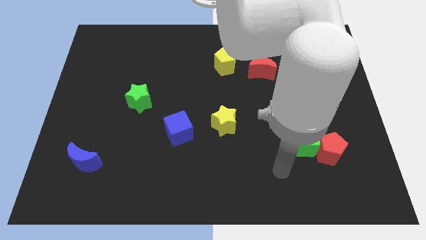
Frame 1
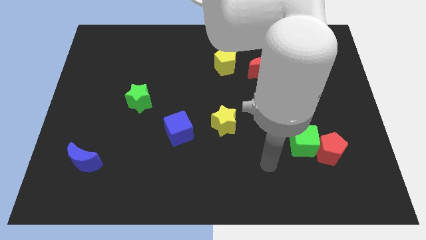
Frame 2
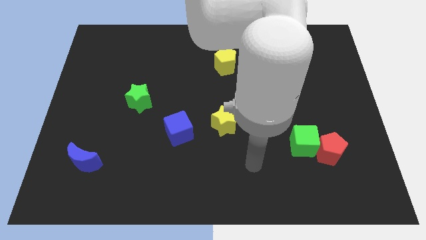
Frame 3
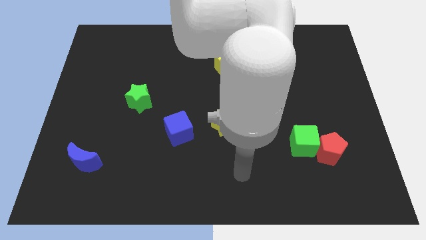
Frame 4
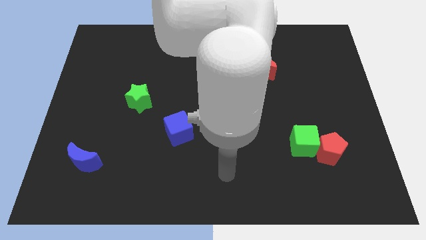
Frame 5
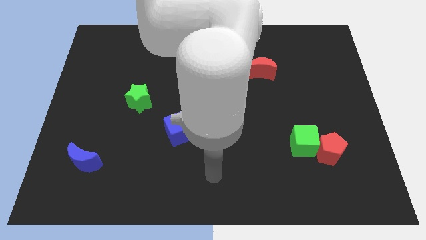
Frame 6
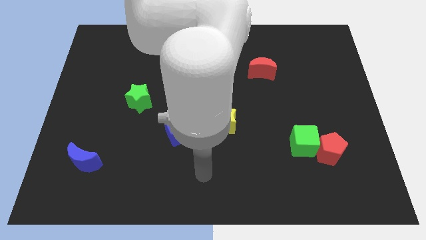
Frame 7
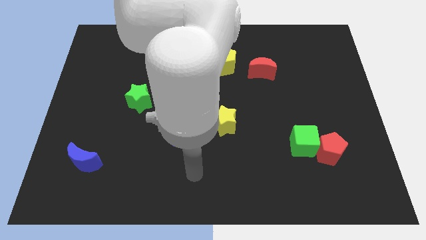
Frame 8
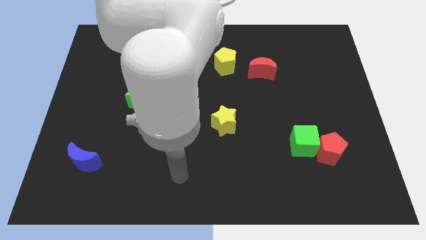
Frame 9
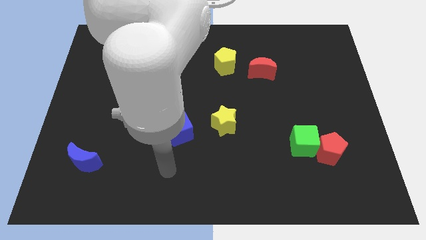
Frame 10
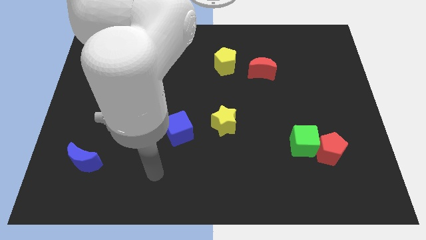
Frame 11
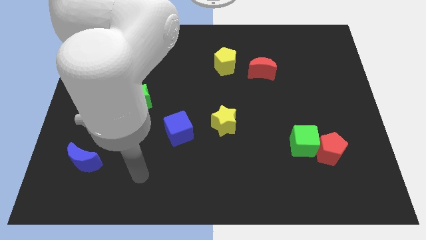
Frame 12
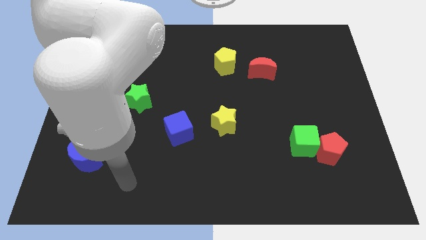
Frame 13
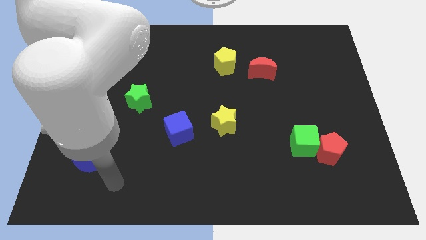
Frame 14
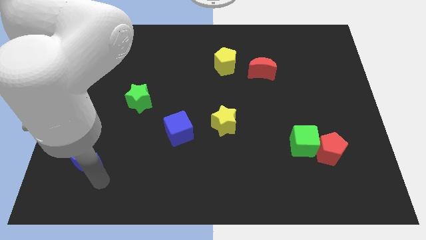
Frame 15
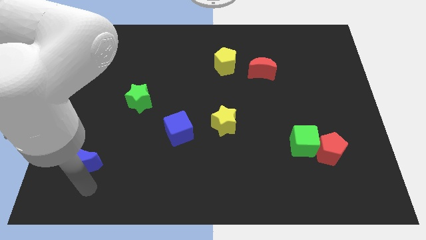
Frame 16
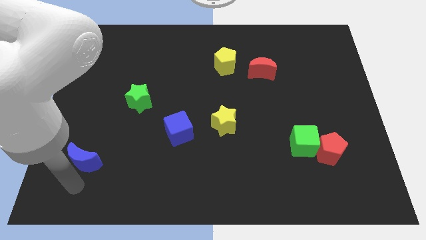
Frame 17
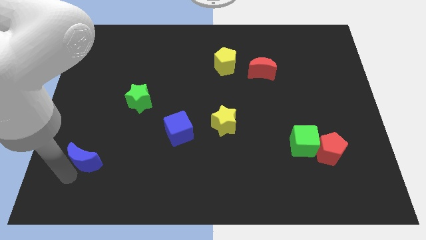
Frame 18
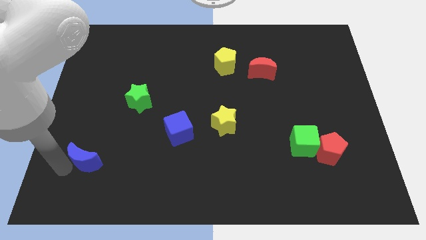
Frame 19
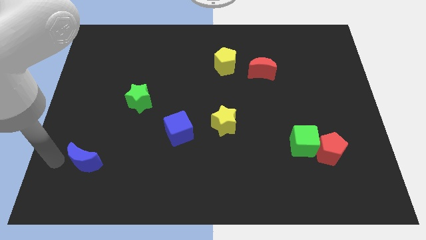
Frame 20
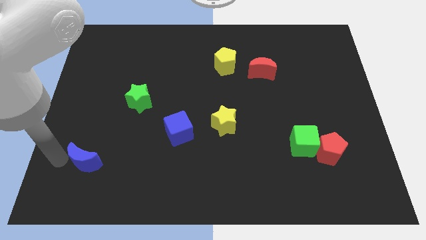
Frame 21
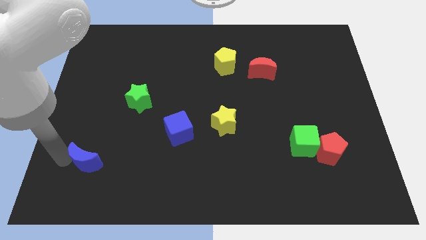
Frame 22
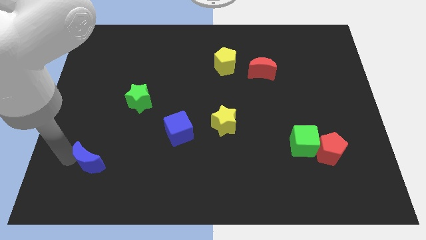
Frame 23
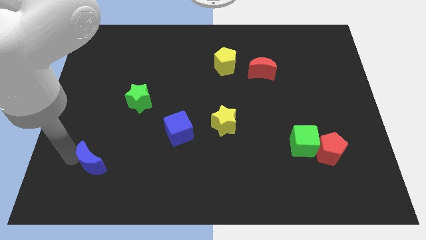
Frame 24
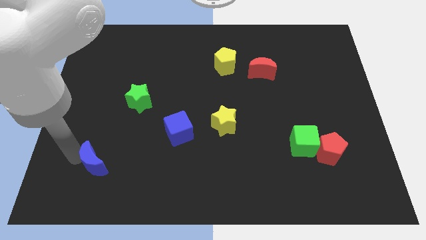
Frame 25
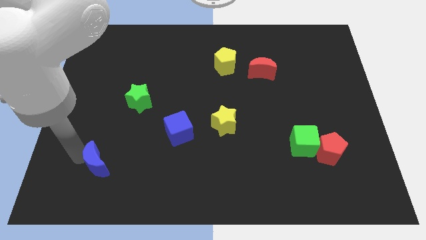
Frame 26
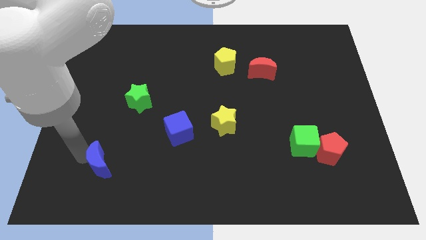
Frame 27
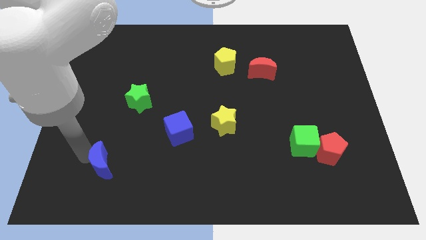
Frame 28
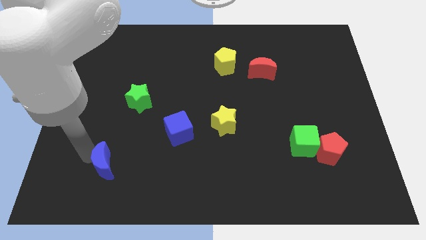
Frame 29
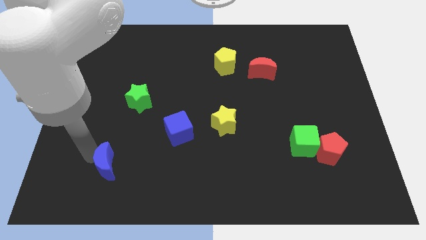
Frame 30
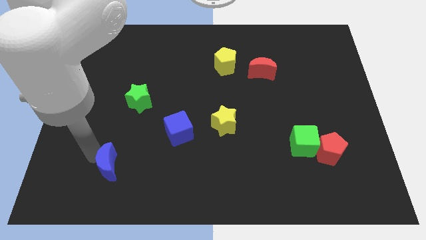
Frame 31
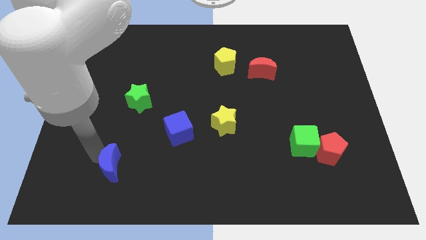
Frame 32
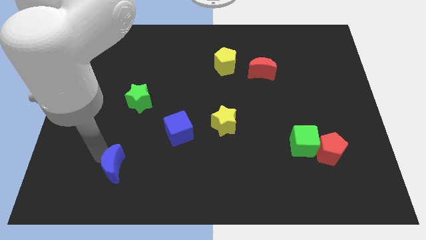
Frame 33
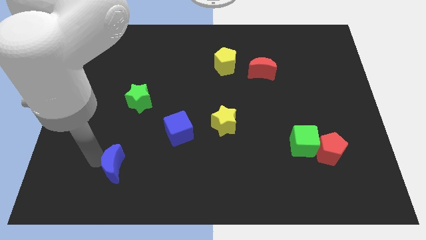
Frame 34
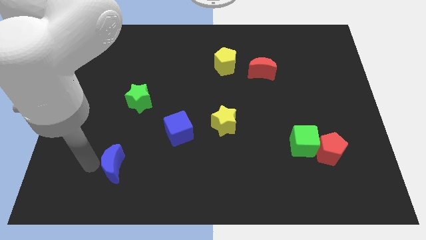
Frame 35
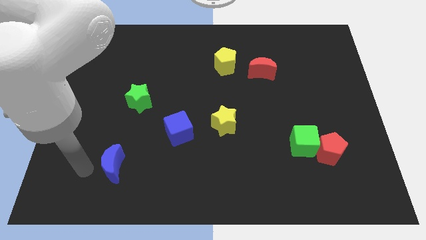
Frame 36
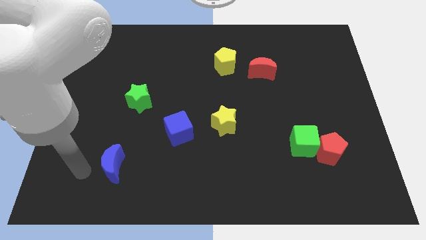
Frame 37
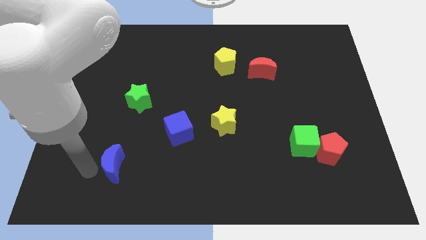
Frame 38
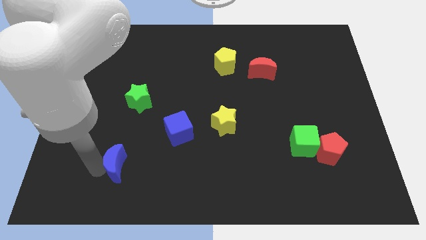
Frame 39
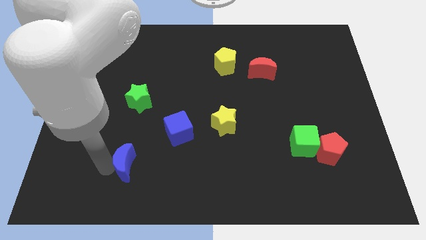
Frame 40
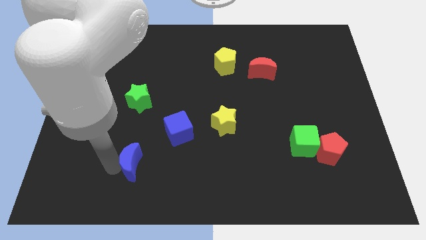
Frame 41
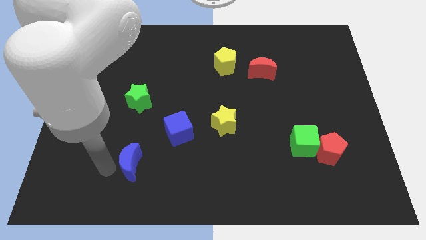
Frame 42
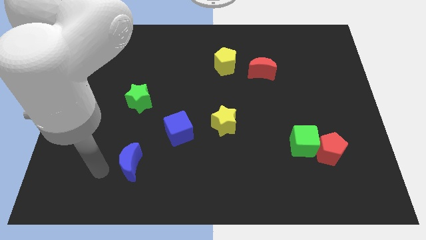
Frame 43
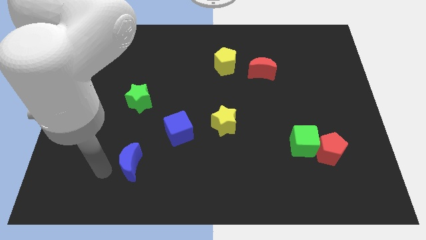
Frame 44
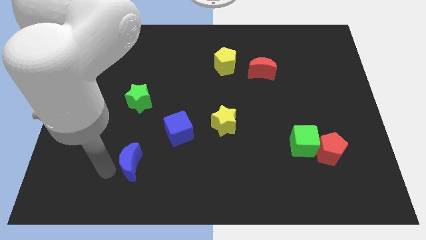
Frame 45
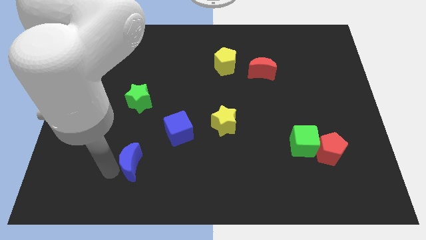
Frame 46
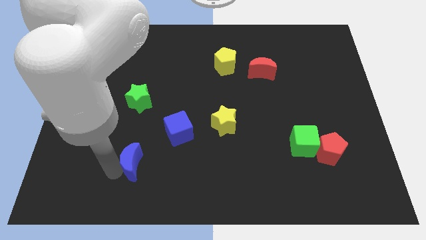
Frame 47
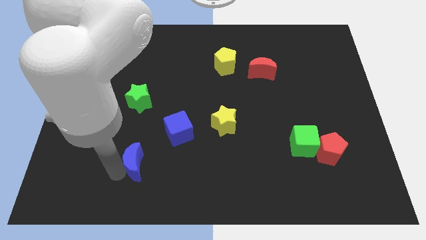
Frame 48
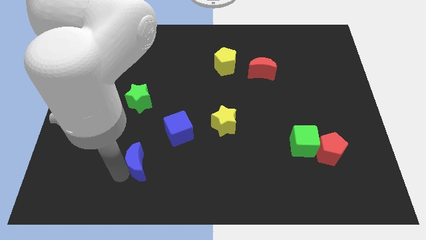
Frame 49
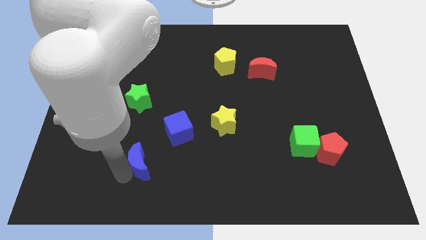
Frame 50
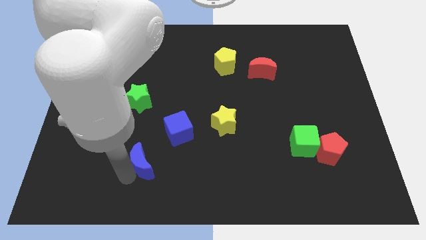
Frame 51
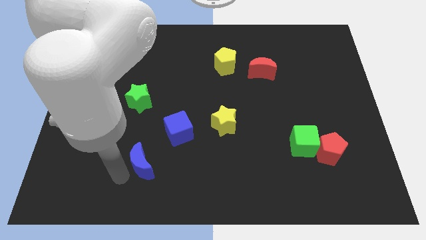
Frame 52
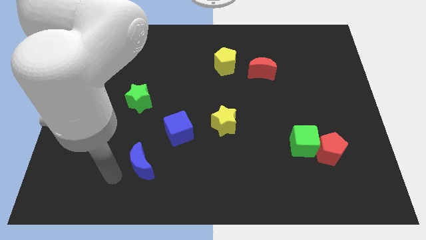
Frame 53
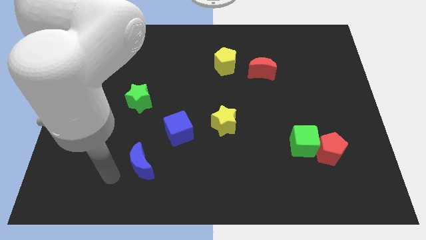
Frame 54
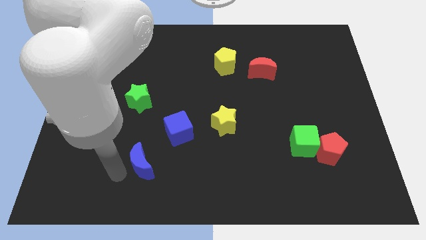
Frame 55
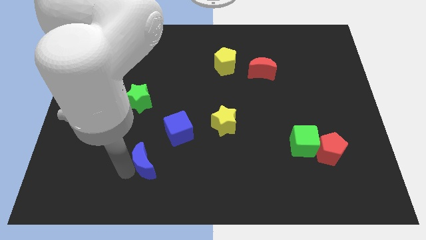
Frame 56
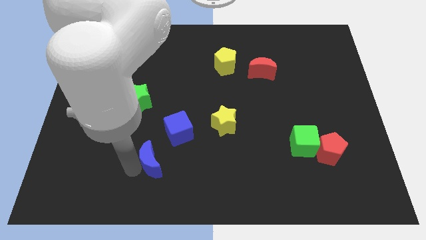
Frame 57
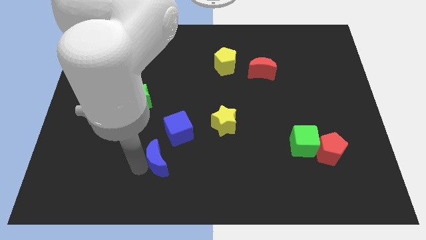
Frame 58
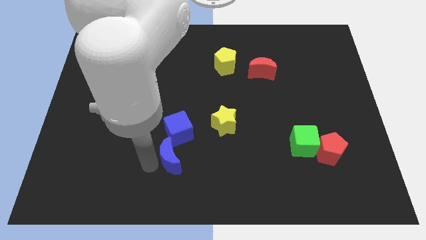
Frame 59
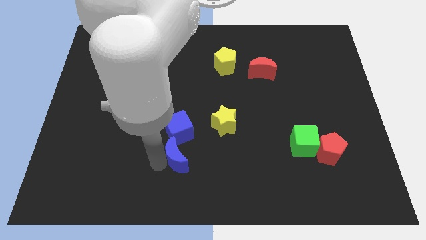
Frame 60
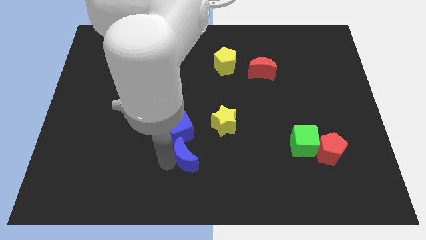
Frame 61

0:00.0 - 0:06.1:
move the blue moon right

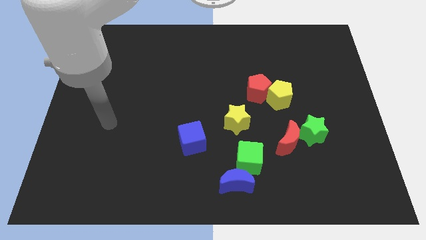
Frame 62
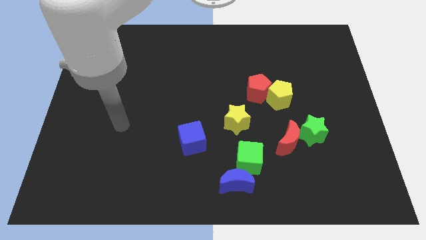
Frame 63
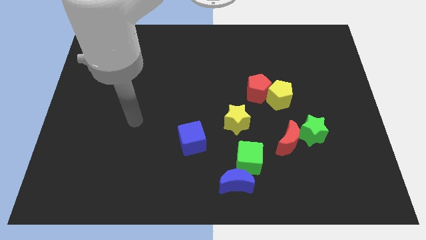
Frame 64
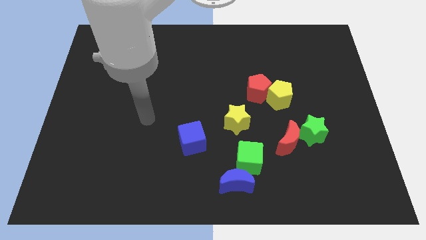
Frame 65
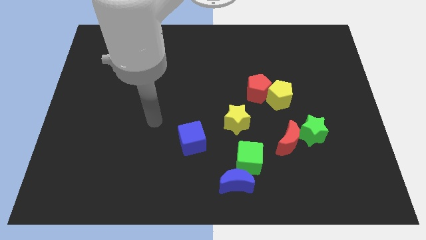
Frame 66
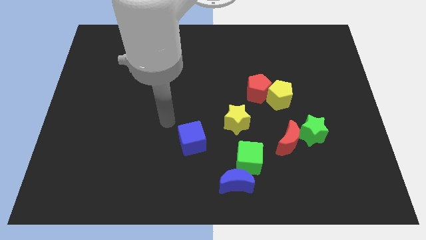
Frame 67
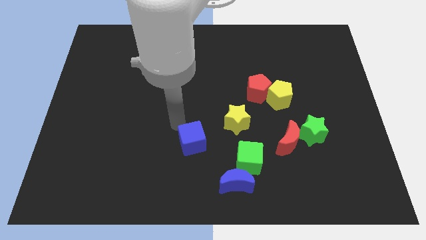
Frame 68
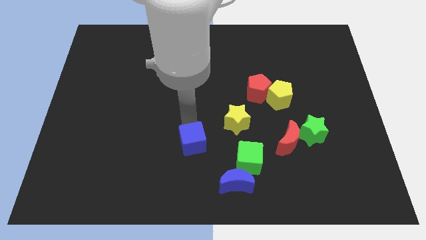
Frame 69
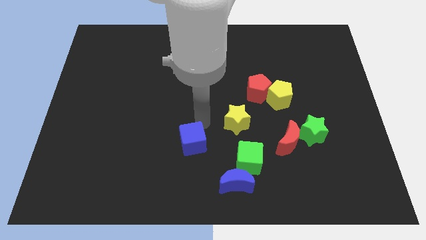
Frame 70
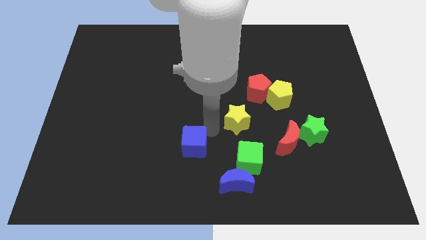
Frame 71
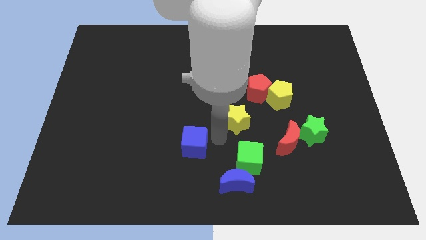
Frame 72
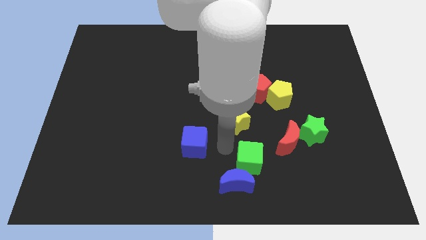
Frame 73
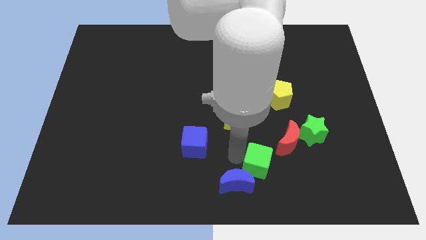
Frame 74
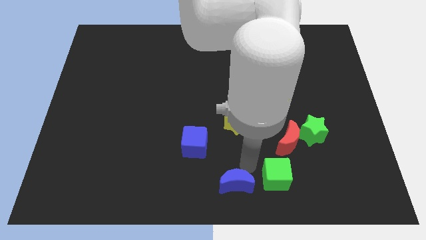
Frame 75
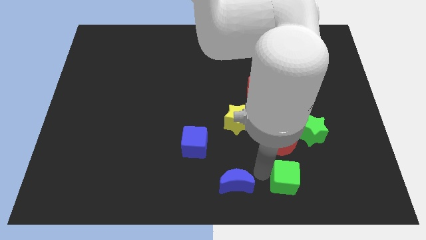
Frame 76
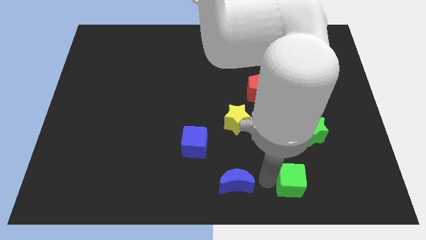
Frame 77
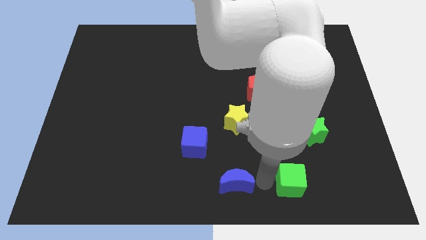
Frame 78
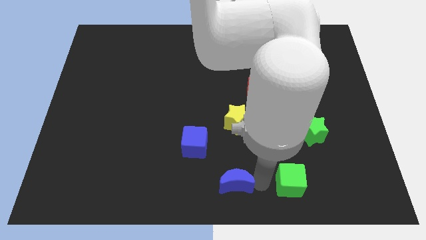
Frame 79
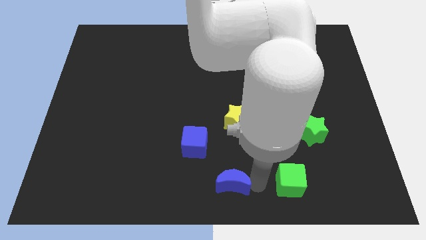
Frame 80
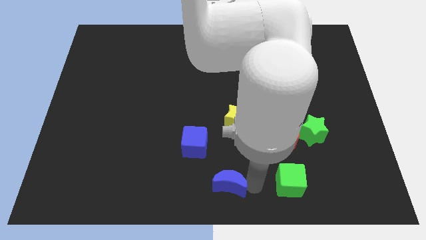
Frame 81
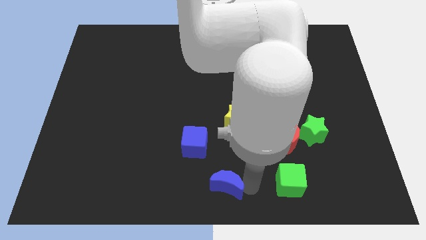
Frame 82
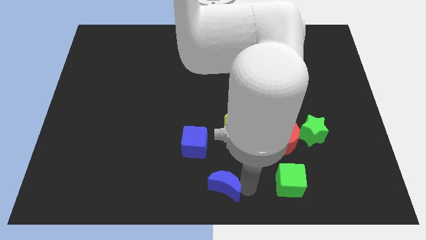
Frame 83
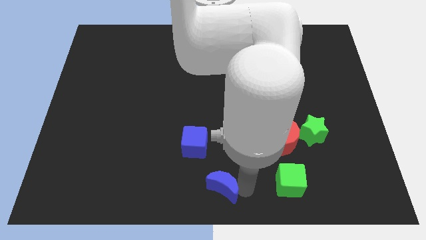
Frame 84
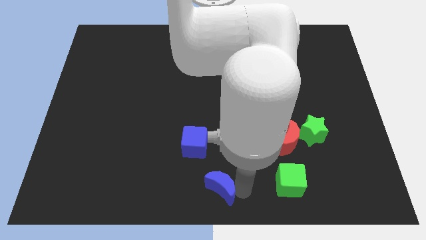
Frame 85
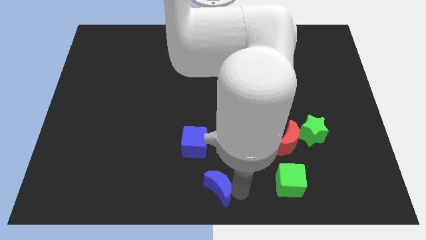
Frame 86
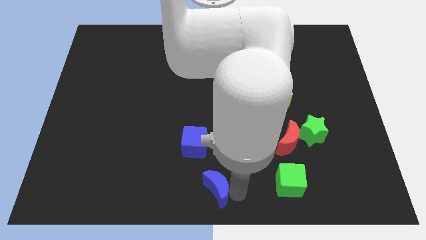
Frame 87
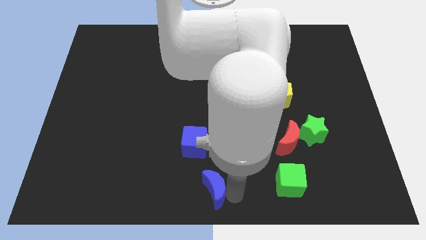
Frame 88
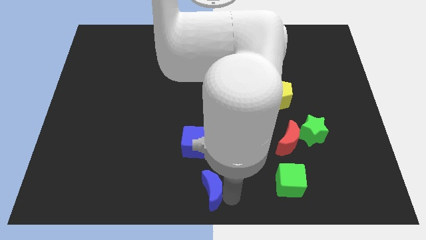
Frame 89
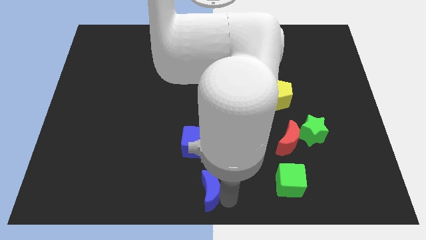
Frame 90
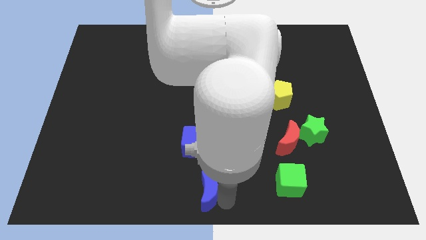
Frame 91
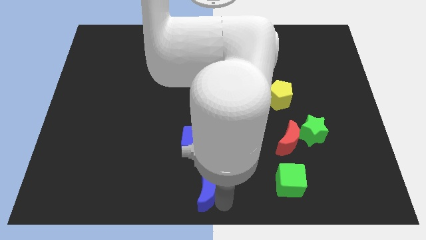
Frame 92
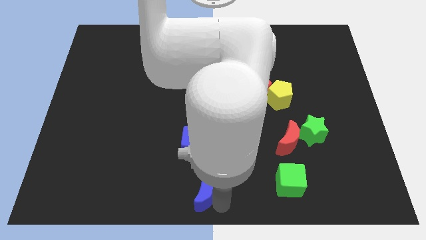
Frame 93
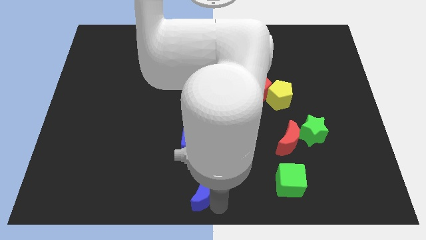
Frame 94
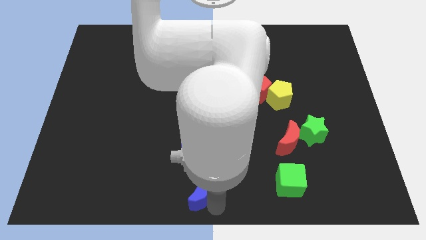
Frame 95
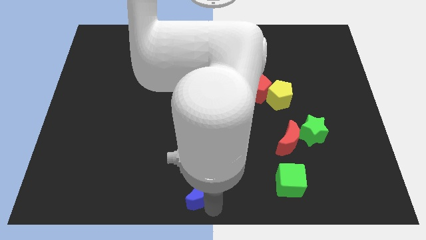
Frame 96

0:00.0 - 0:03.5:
slide the blue moon to the left somewhat
